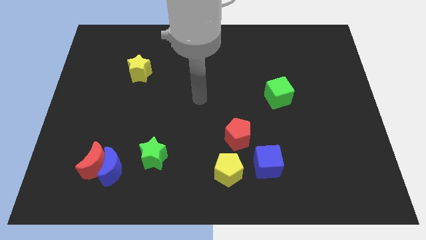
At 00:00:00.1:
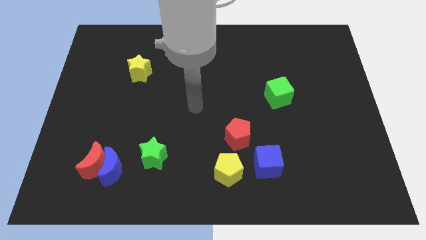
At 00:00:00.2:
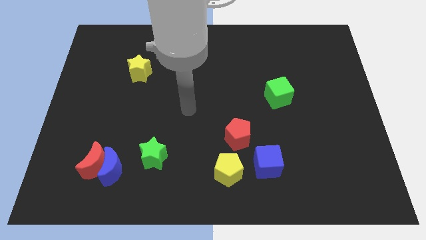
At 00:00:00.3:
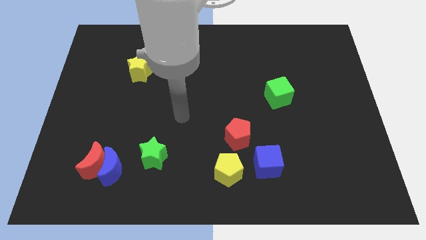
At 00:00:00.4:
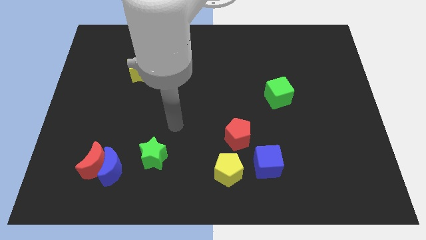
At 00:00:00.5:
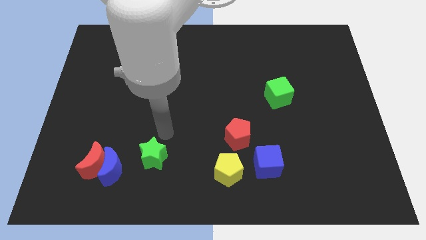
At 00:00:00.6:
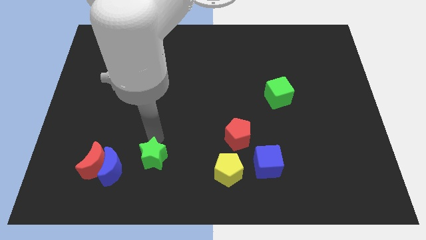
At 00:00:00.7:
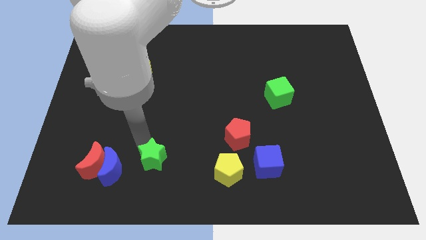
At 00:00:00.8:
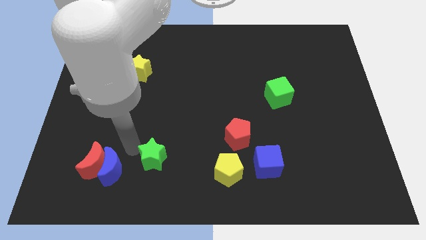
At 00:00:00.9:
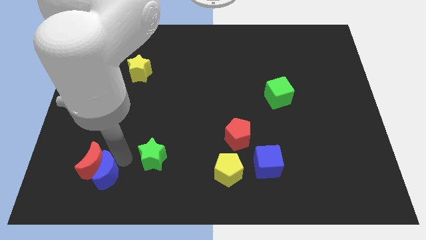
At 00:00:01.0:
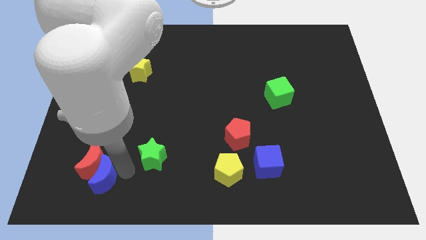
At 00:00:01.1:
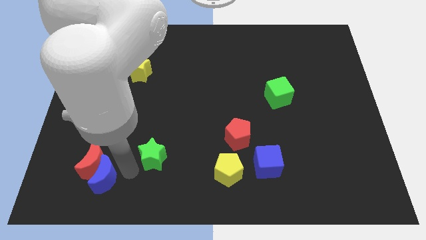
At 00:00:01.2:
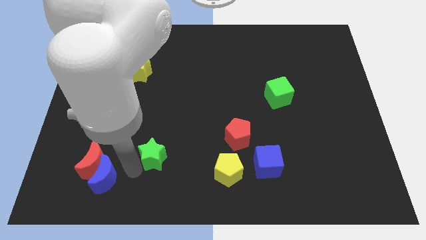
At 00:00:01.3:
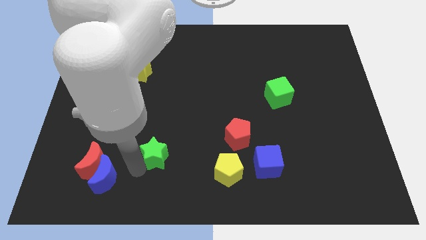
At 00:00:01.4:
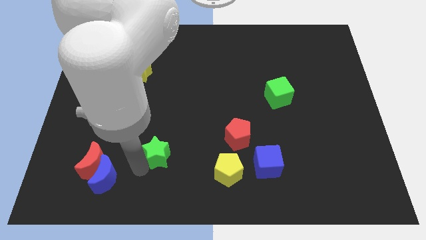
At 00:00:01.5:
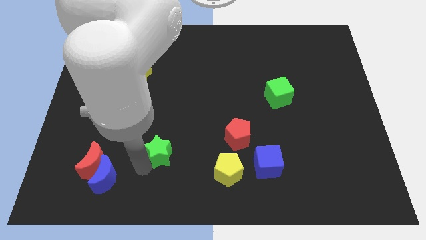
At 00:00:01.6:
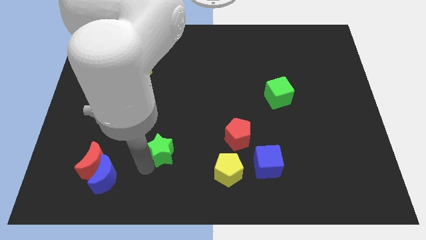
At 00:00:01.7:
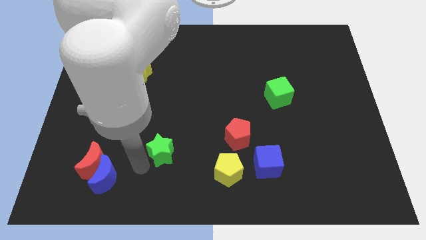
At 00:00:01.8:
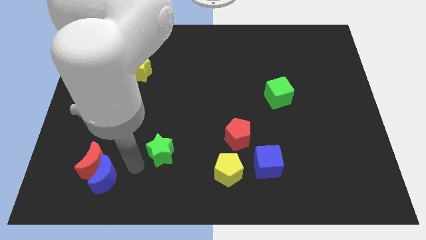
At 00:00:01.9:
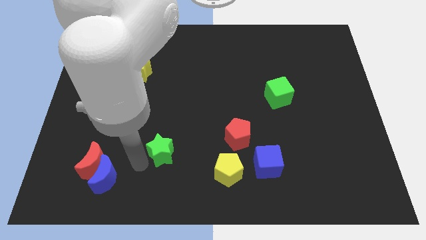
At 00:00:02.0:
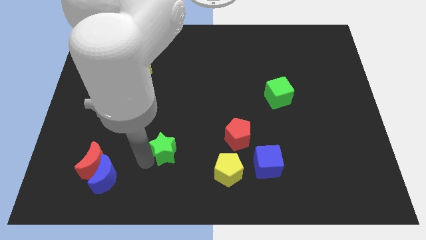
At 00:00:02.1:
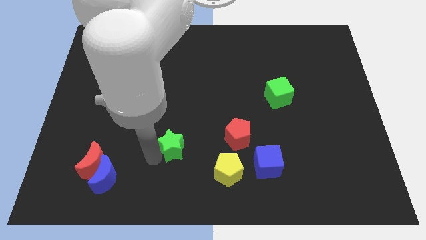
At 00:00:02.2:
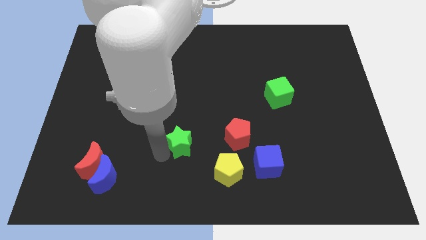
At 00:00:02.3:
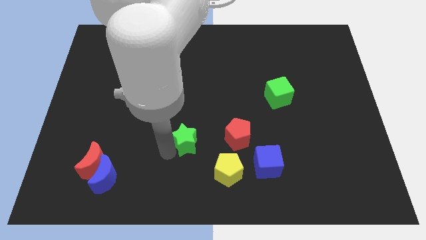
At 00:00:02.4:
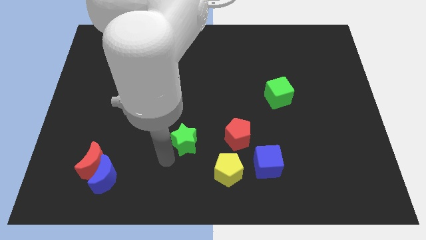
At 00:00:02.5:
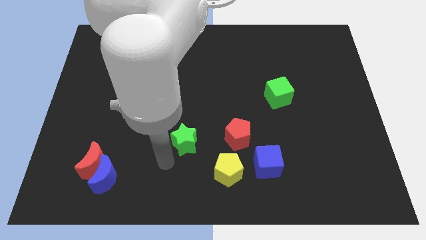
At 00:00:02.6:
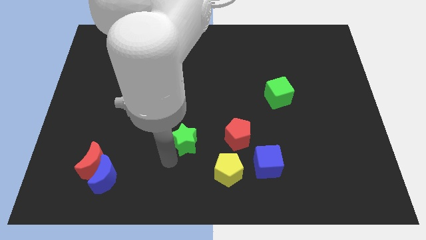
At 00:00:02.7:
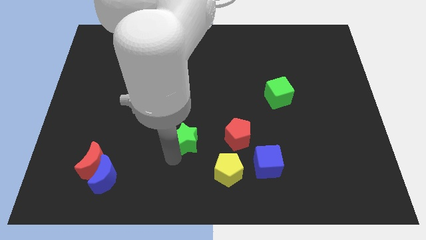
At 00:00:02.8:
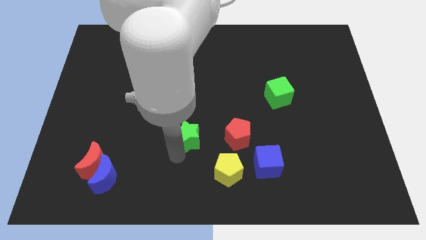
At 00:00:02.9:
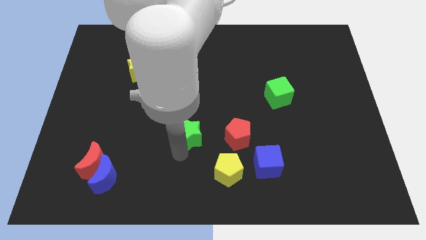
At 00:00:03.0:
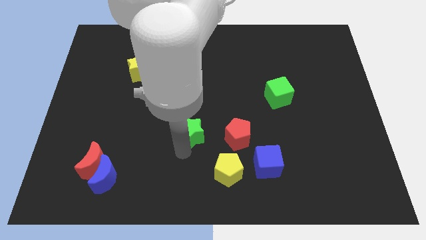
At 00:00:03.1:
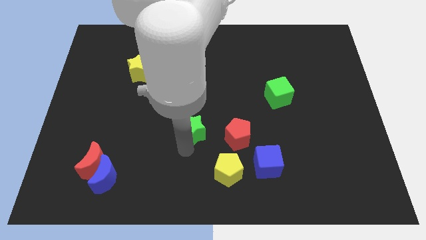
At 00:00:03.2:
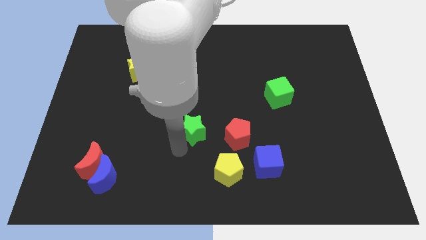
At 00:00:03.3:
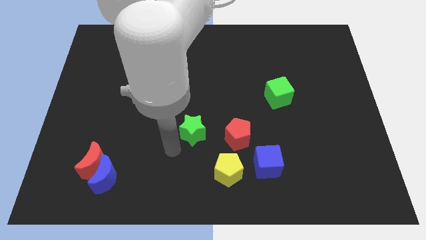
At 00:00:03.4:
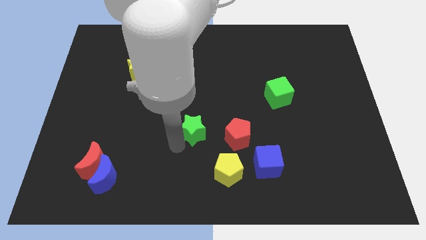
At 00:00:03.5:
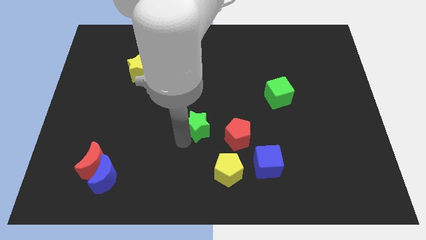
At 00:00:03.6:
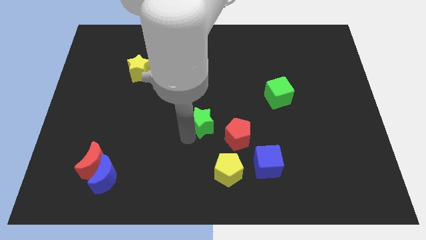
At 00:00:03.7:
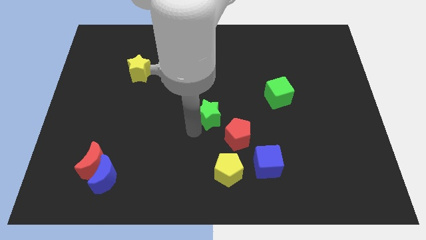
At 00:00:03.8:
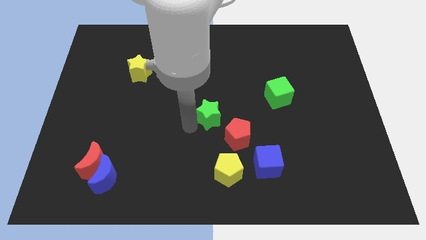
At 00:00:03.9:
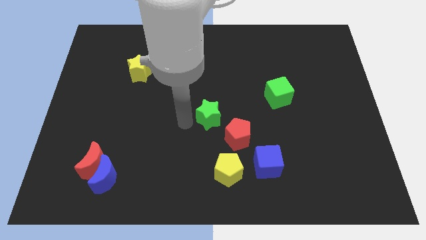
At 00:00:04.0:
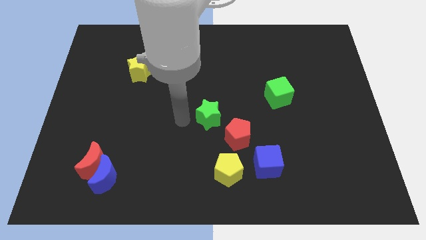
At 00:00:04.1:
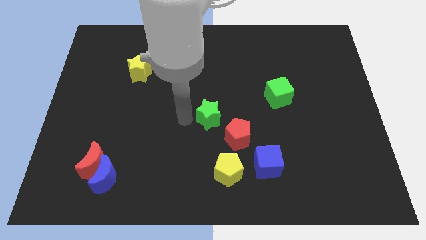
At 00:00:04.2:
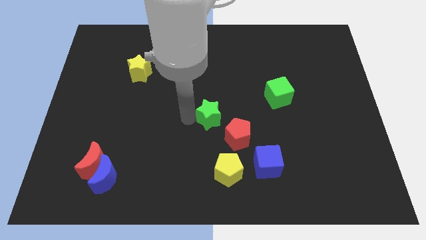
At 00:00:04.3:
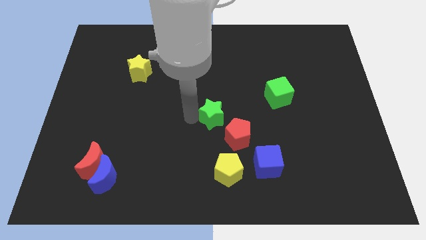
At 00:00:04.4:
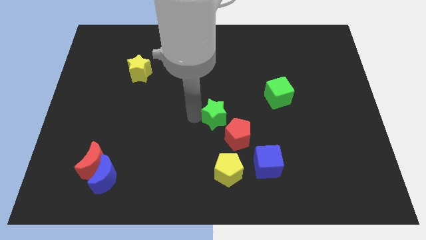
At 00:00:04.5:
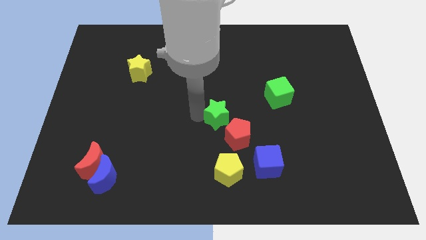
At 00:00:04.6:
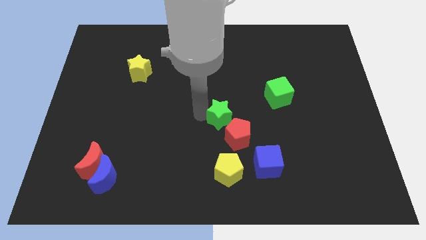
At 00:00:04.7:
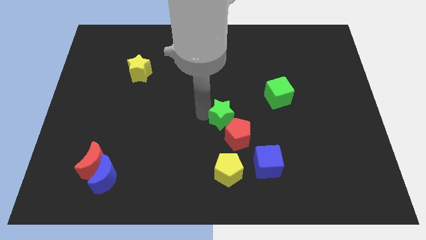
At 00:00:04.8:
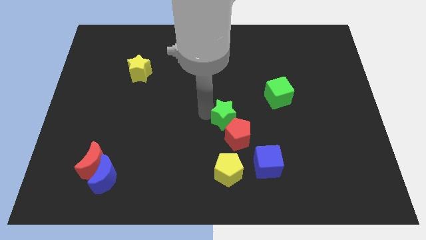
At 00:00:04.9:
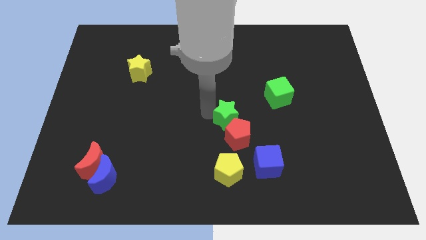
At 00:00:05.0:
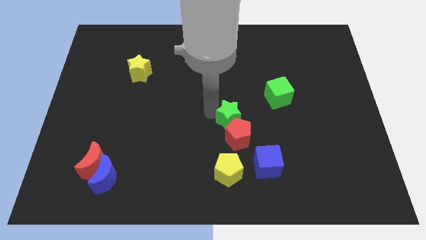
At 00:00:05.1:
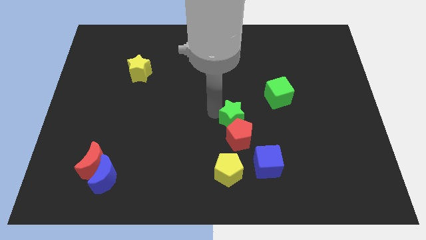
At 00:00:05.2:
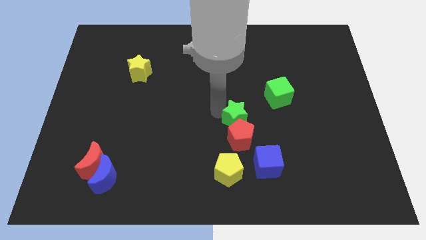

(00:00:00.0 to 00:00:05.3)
put the green star to the bottom left of the green cube

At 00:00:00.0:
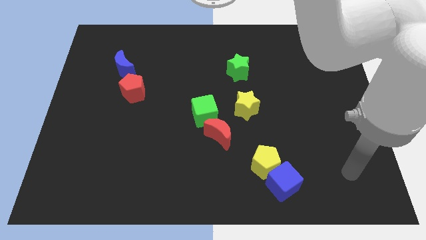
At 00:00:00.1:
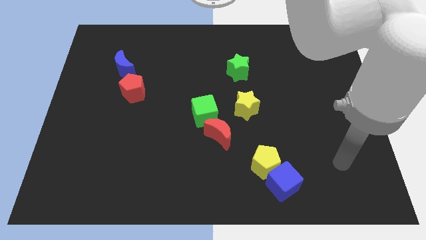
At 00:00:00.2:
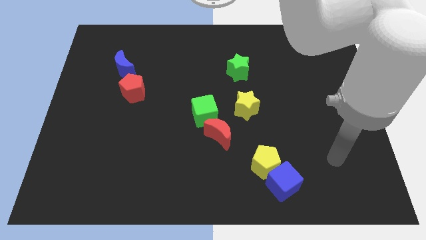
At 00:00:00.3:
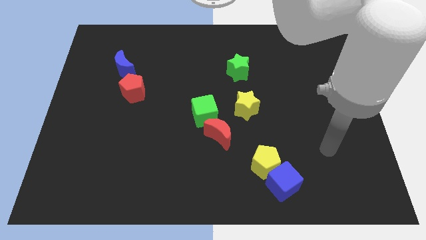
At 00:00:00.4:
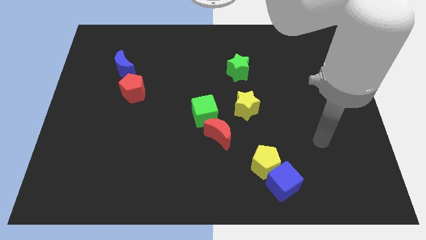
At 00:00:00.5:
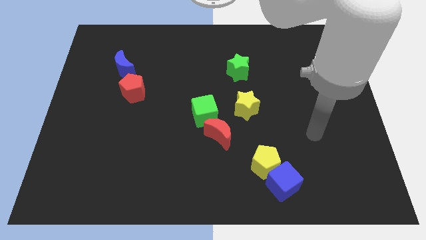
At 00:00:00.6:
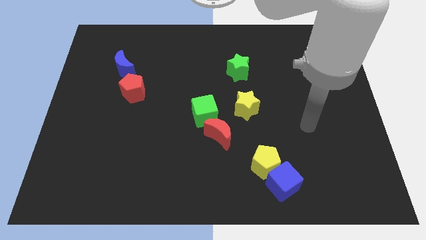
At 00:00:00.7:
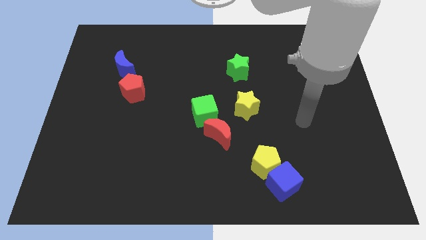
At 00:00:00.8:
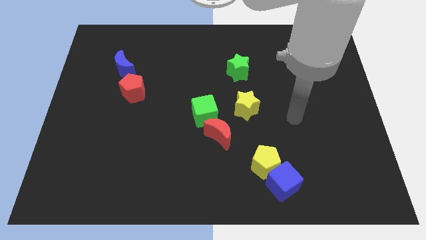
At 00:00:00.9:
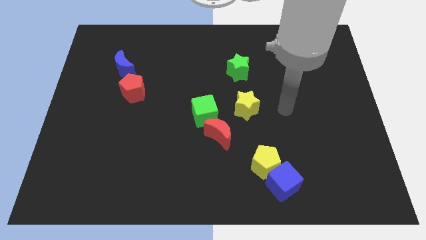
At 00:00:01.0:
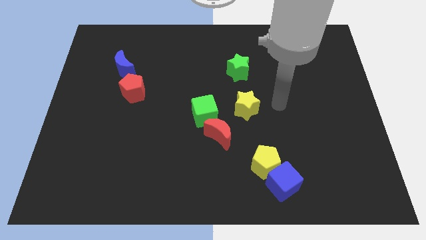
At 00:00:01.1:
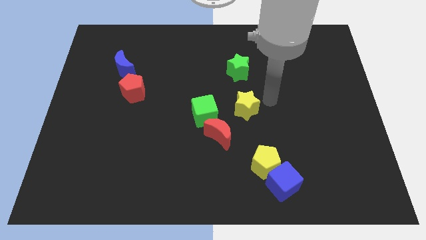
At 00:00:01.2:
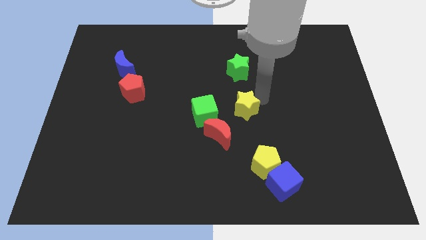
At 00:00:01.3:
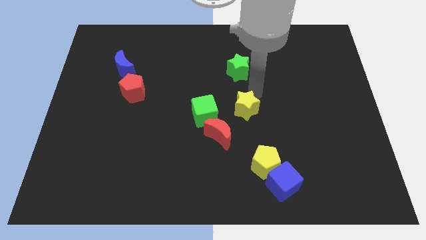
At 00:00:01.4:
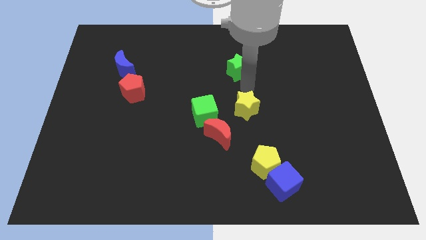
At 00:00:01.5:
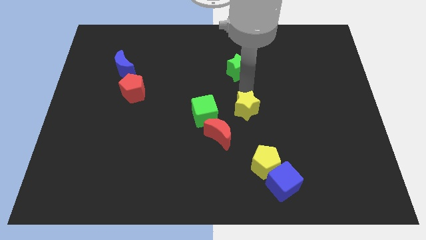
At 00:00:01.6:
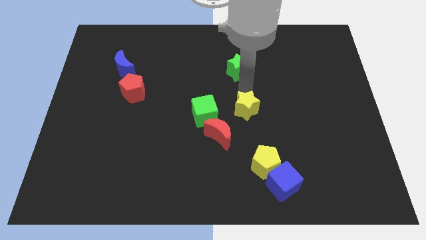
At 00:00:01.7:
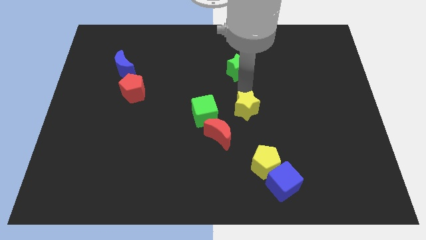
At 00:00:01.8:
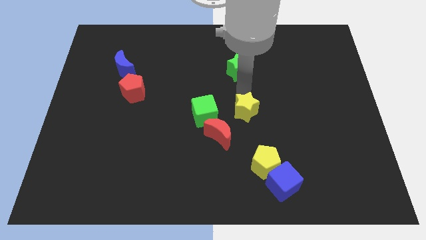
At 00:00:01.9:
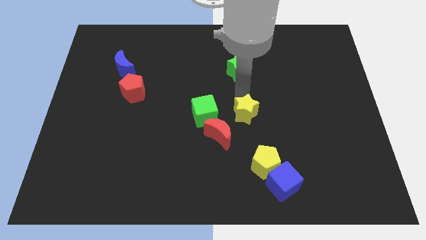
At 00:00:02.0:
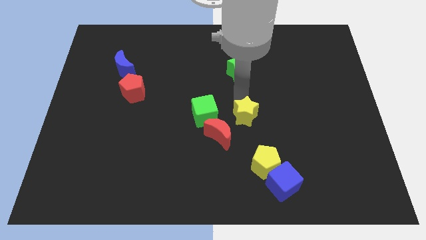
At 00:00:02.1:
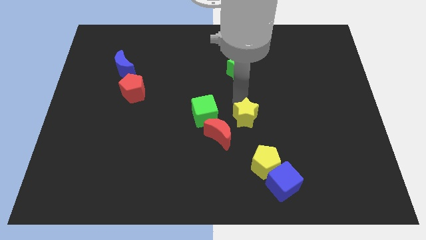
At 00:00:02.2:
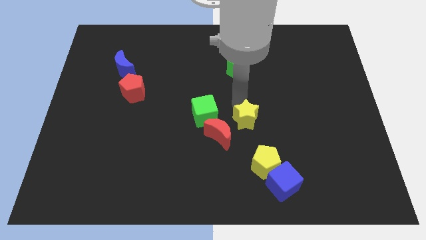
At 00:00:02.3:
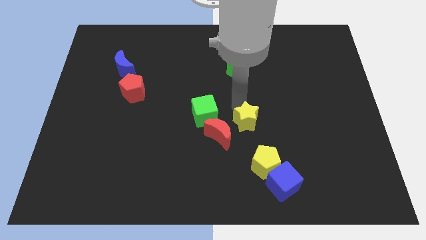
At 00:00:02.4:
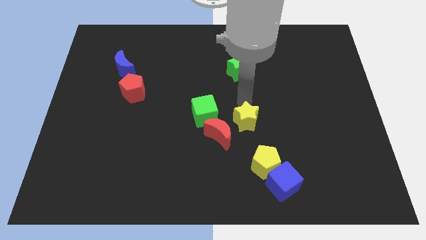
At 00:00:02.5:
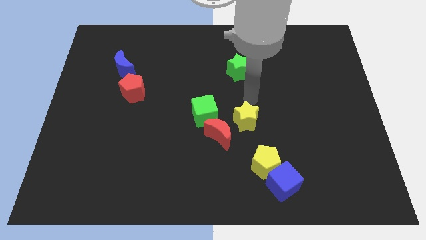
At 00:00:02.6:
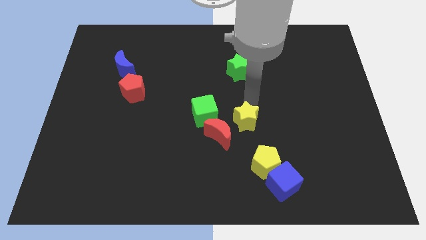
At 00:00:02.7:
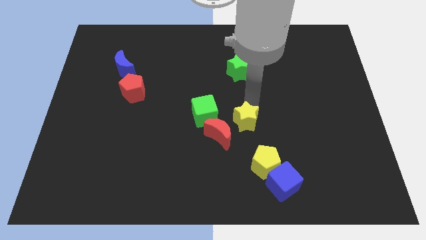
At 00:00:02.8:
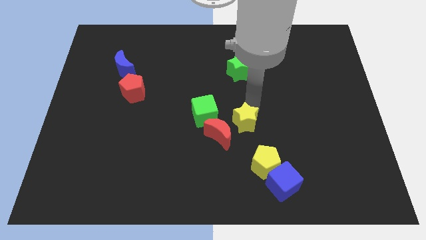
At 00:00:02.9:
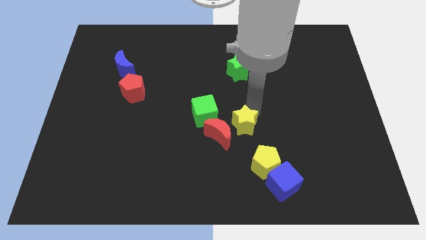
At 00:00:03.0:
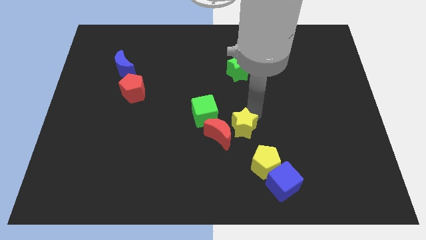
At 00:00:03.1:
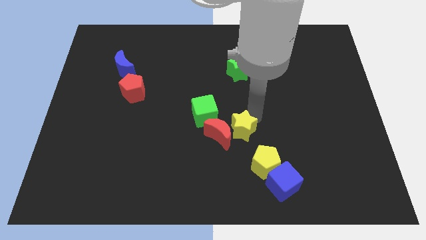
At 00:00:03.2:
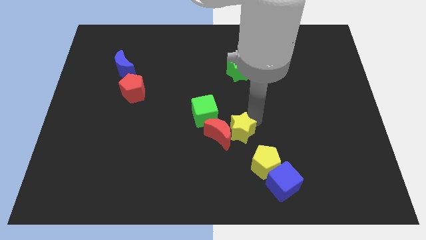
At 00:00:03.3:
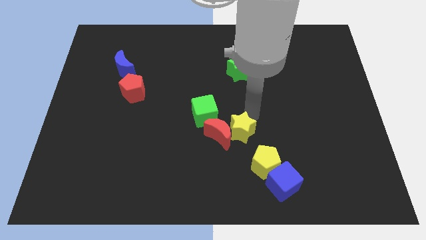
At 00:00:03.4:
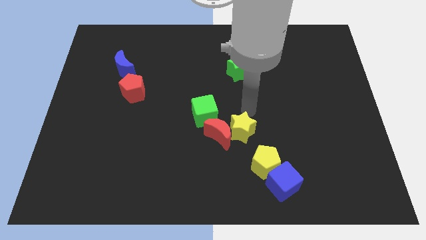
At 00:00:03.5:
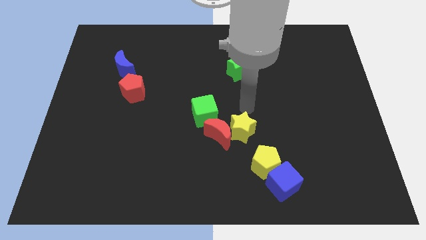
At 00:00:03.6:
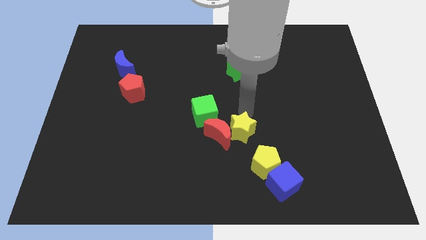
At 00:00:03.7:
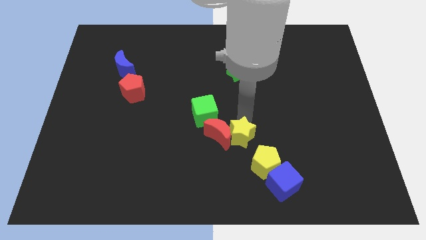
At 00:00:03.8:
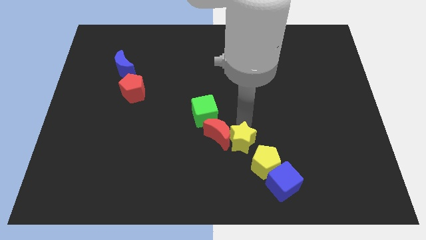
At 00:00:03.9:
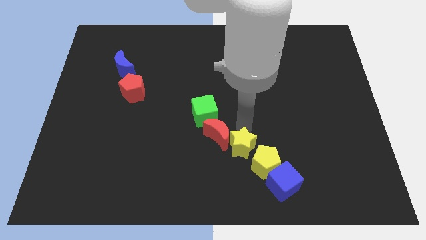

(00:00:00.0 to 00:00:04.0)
slide the yellow star to the left side of the yellow pentagon
